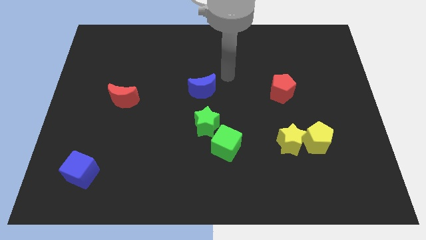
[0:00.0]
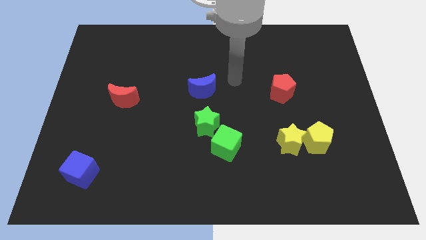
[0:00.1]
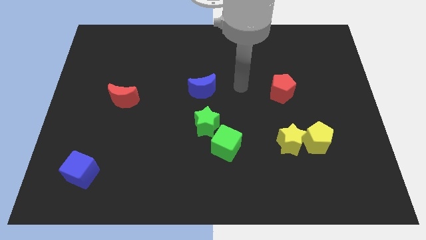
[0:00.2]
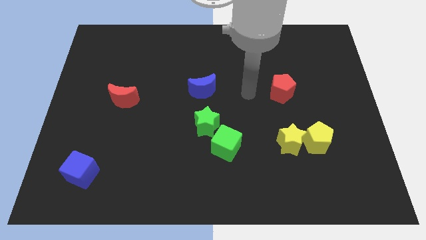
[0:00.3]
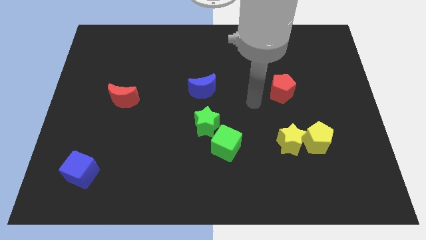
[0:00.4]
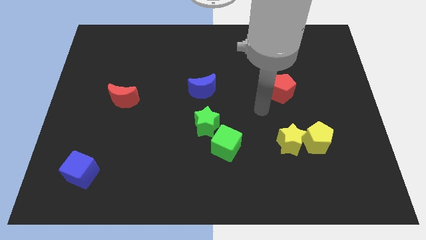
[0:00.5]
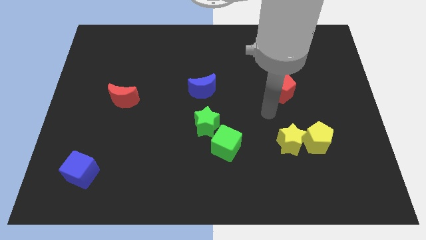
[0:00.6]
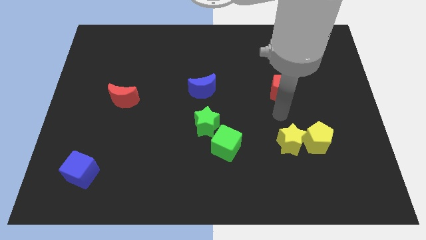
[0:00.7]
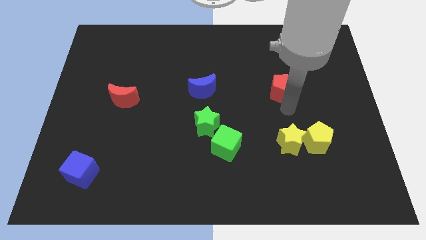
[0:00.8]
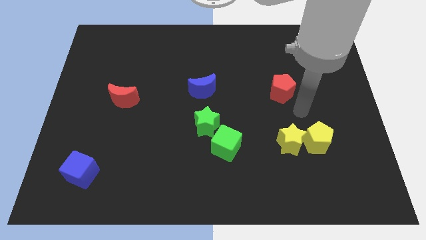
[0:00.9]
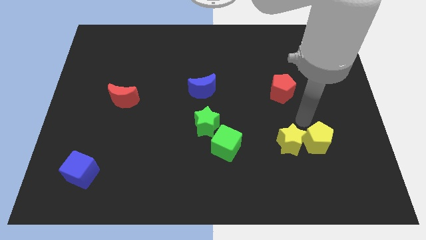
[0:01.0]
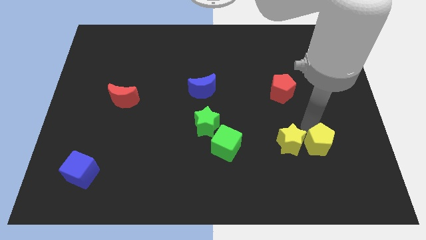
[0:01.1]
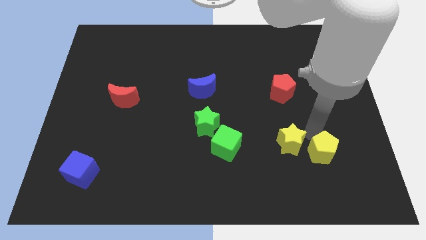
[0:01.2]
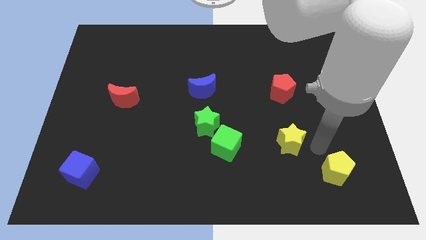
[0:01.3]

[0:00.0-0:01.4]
move the yellow star away from the yellow pentagon

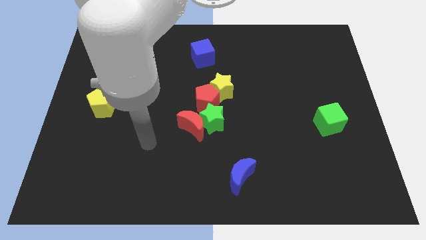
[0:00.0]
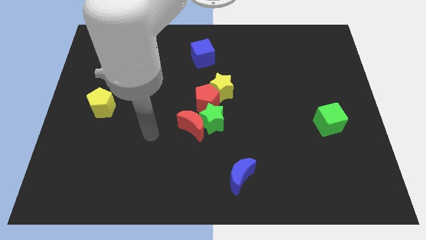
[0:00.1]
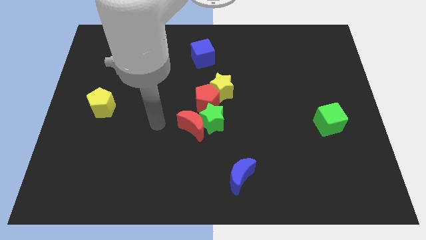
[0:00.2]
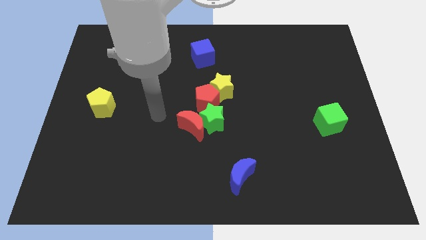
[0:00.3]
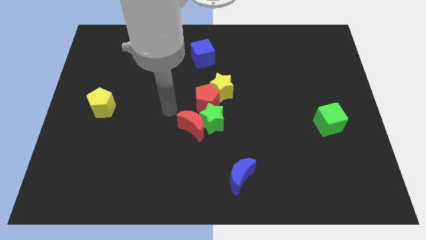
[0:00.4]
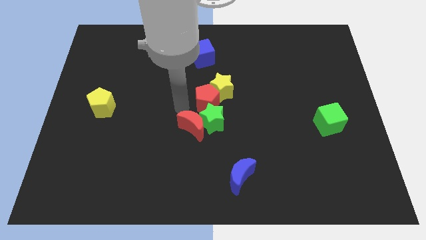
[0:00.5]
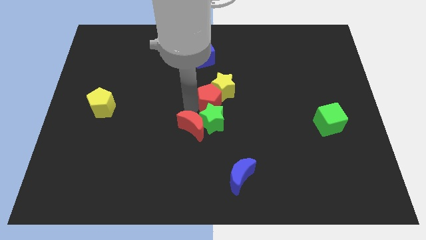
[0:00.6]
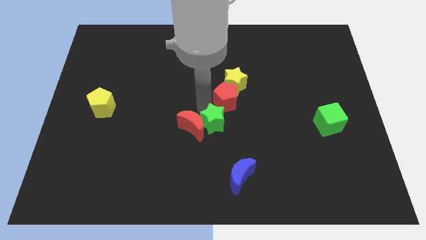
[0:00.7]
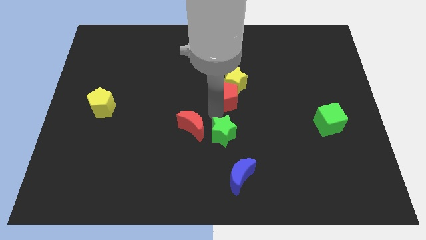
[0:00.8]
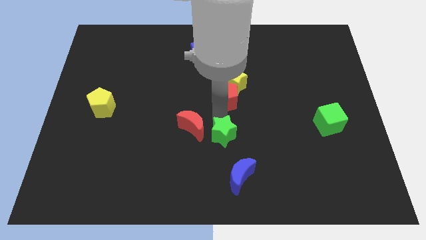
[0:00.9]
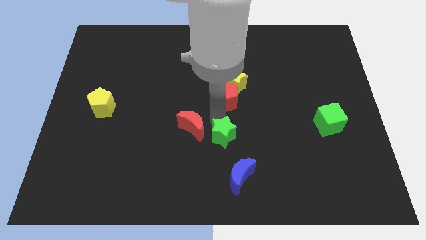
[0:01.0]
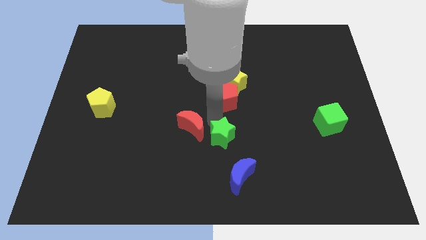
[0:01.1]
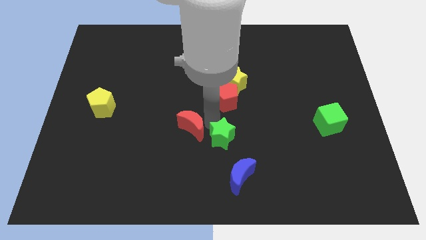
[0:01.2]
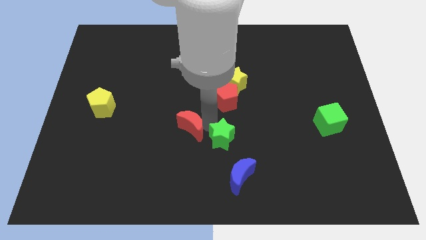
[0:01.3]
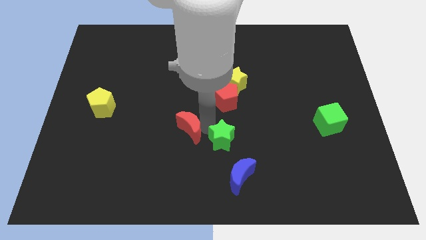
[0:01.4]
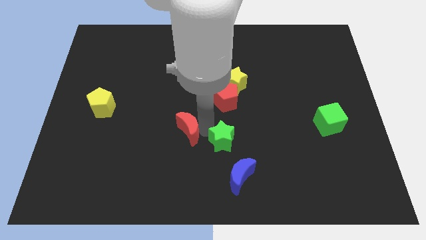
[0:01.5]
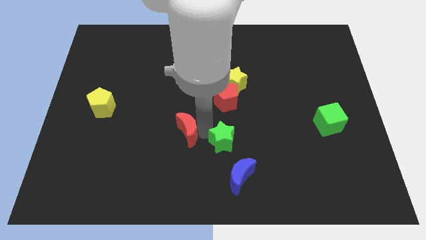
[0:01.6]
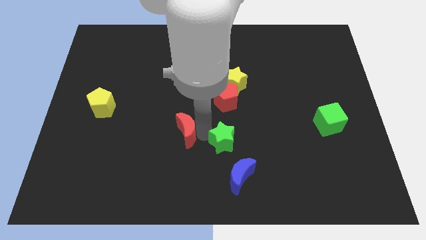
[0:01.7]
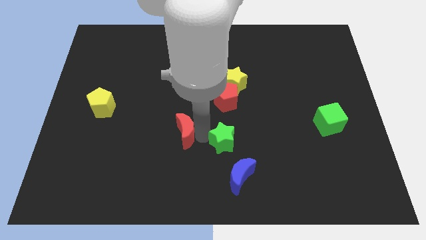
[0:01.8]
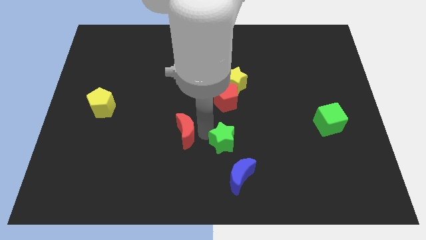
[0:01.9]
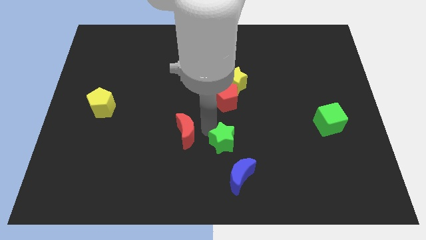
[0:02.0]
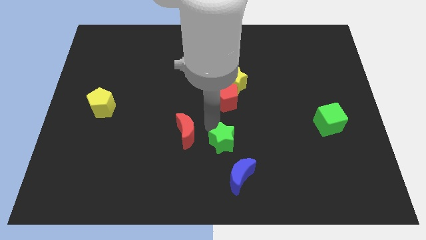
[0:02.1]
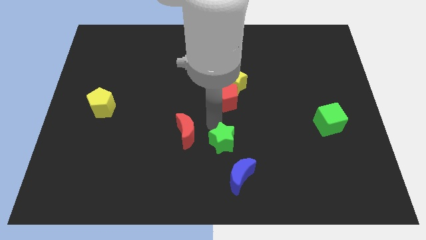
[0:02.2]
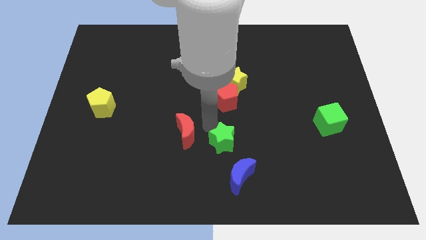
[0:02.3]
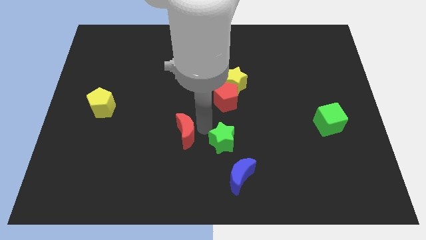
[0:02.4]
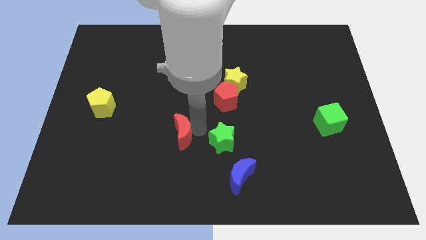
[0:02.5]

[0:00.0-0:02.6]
pull the red moon apart from the green star and red pentagon

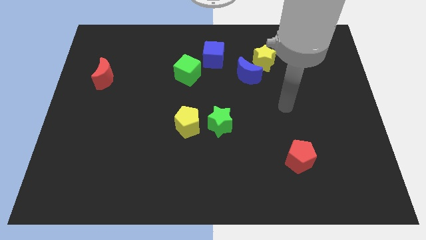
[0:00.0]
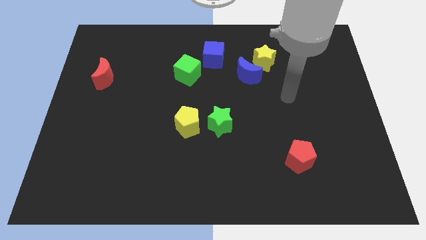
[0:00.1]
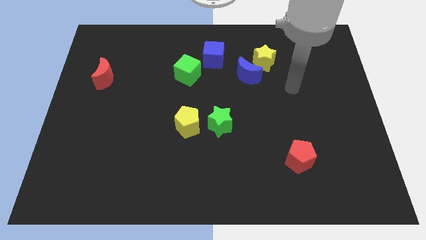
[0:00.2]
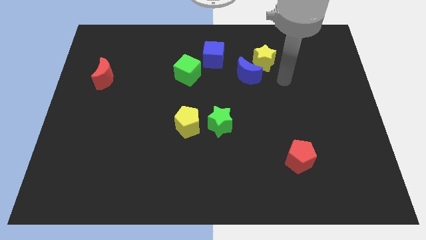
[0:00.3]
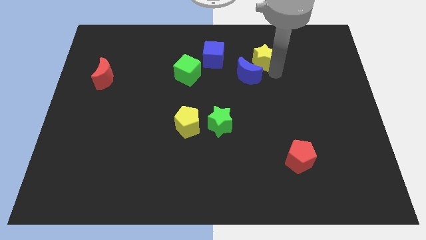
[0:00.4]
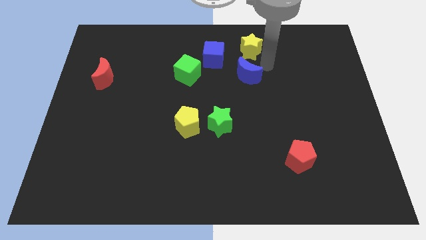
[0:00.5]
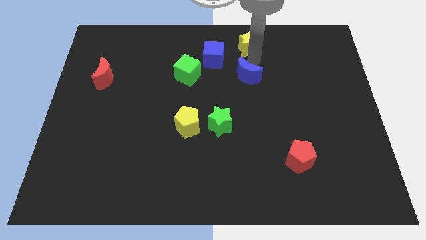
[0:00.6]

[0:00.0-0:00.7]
separate the blue moon from the yellow star

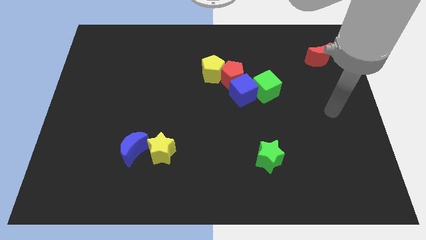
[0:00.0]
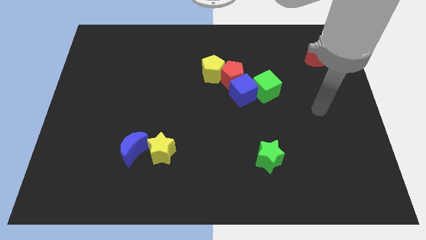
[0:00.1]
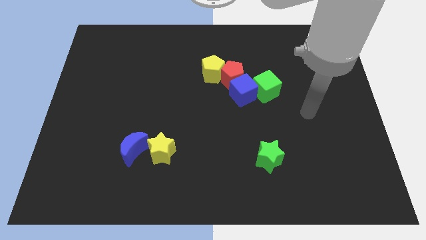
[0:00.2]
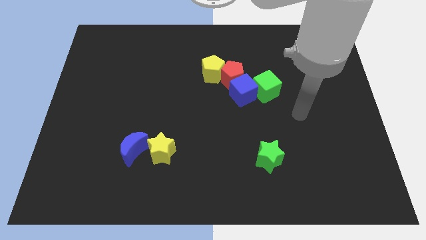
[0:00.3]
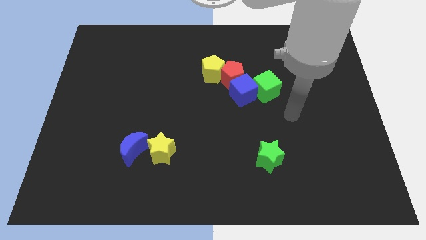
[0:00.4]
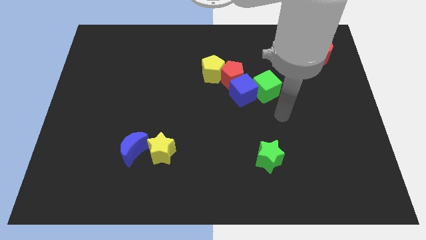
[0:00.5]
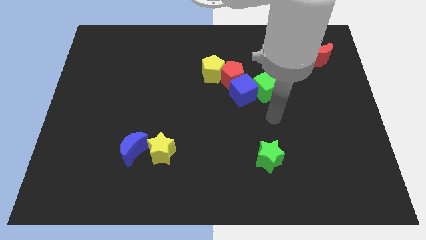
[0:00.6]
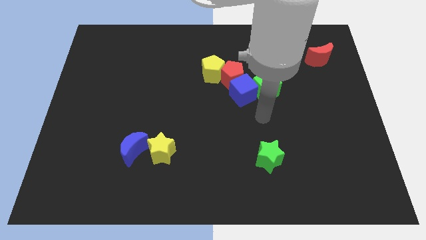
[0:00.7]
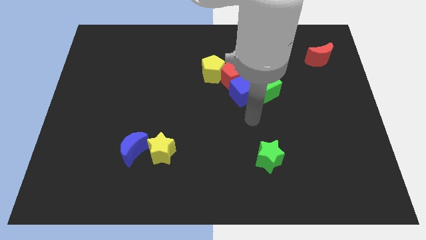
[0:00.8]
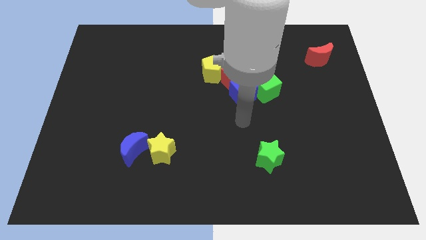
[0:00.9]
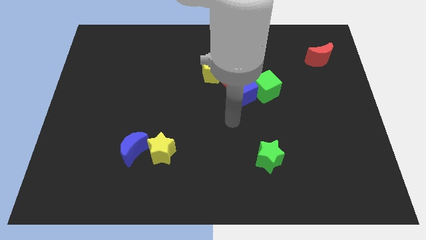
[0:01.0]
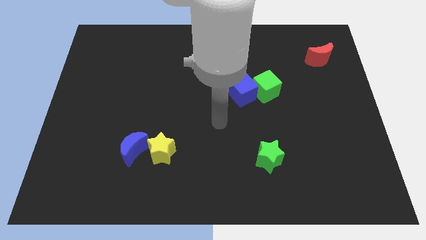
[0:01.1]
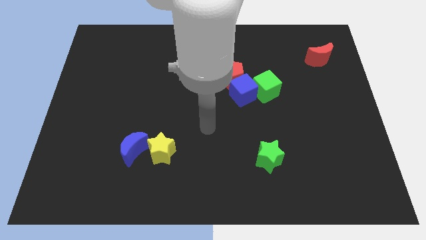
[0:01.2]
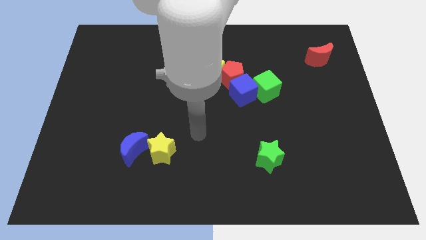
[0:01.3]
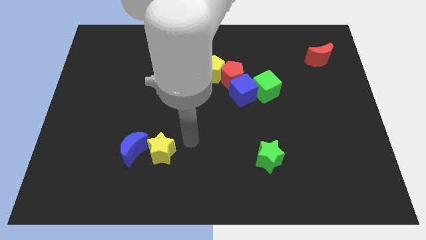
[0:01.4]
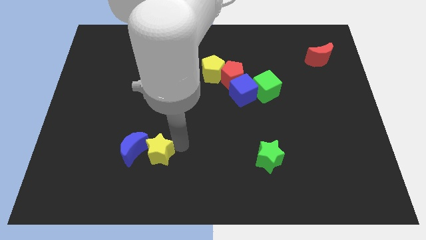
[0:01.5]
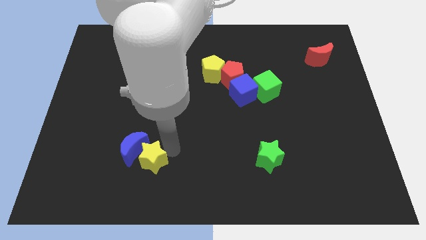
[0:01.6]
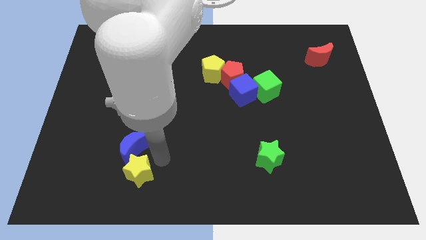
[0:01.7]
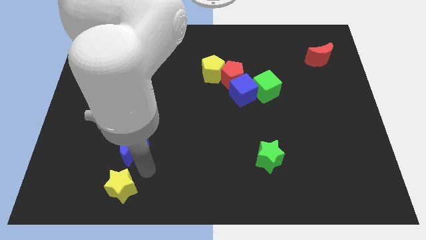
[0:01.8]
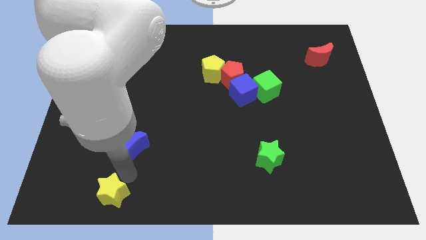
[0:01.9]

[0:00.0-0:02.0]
move the blue moon away from the yellow star

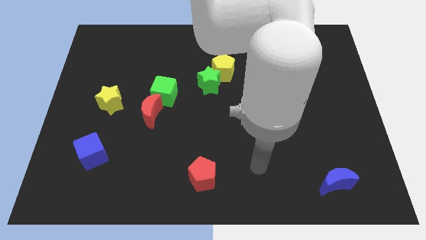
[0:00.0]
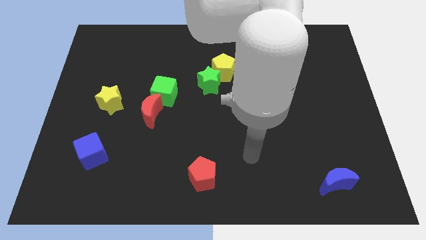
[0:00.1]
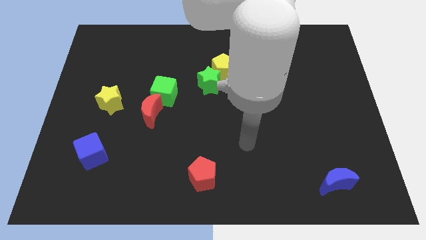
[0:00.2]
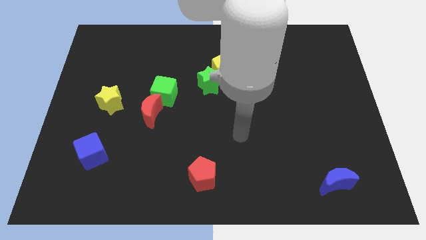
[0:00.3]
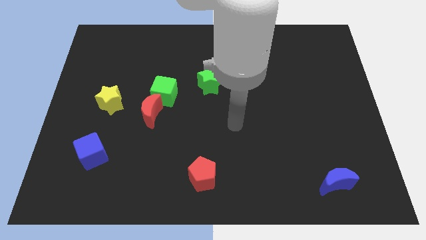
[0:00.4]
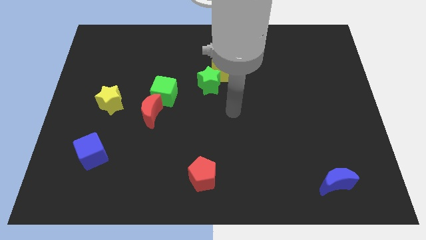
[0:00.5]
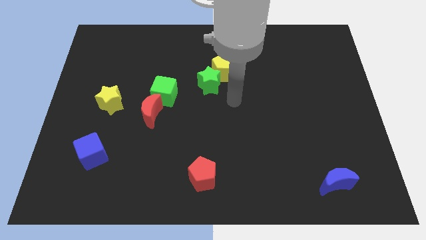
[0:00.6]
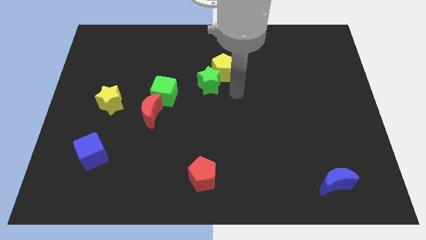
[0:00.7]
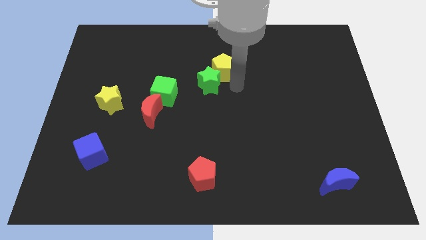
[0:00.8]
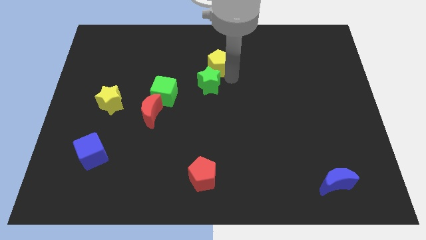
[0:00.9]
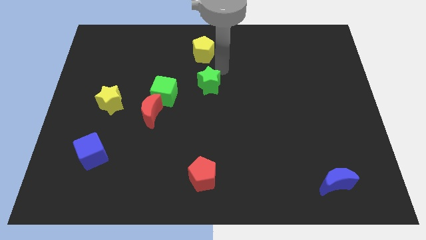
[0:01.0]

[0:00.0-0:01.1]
move the green star away from the yellow pentagon

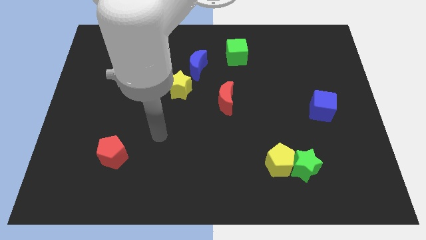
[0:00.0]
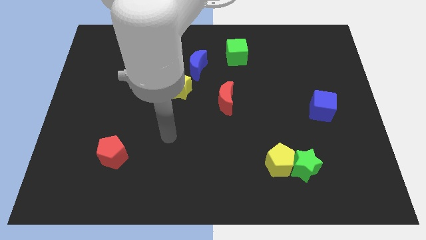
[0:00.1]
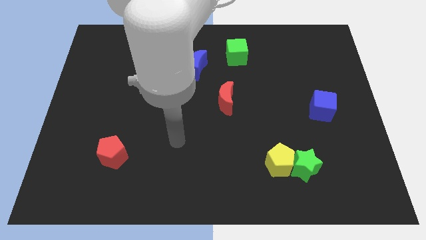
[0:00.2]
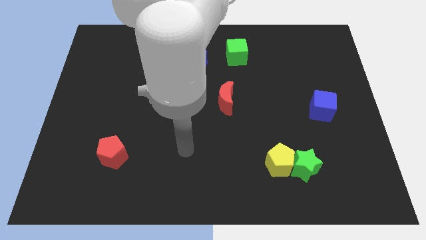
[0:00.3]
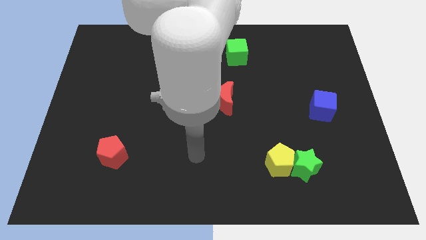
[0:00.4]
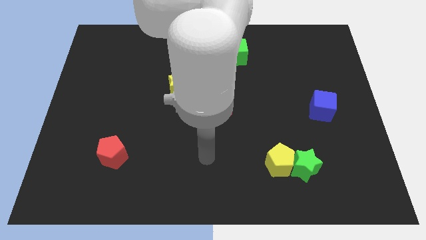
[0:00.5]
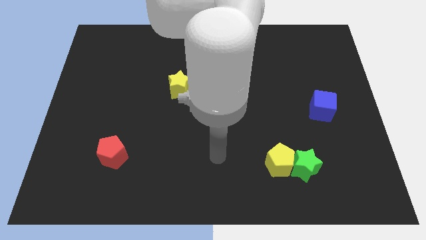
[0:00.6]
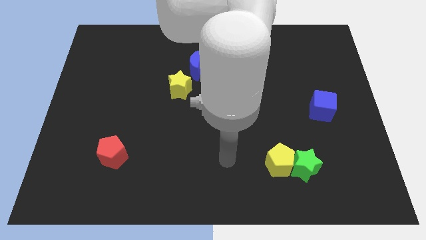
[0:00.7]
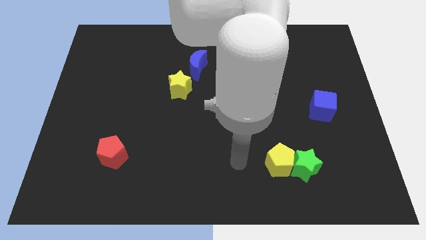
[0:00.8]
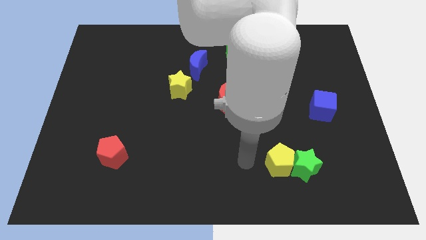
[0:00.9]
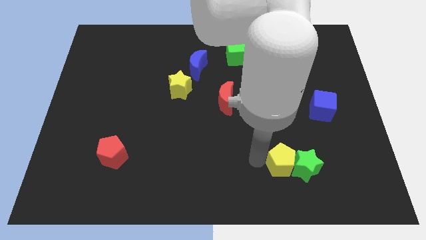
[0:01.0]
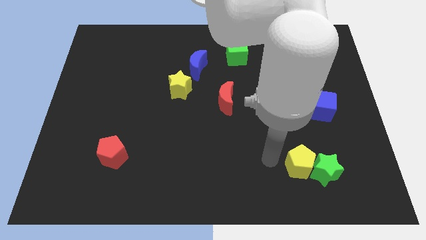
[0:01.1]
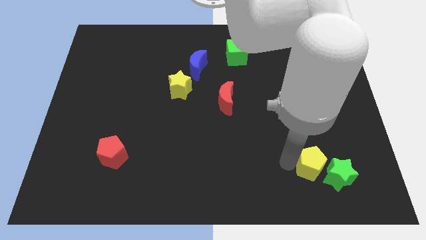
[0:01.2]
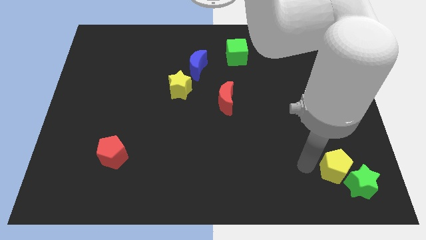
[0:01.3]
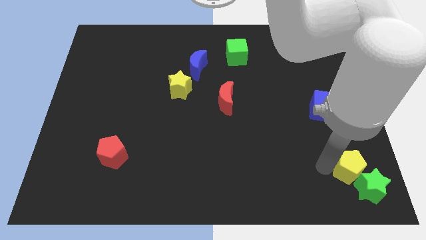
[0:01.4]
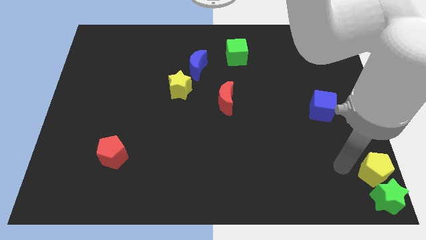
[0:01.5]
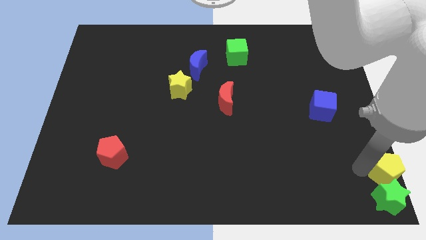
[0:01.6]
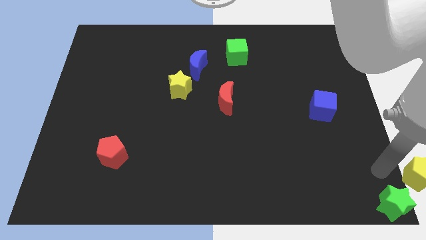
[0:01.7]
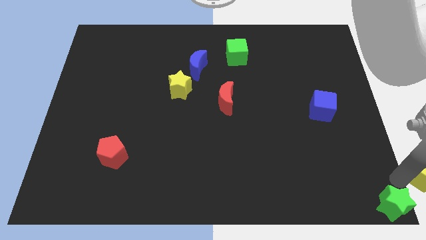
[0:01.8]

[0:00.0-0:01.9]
separate the green star from the yellow pentagon
